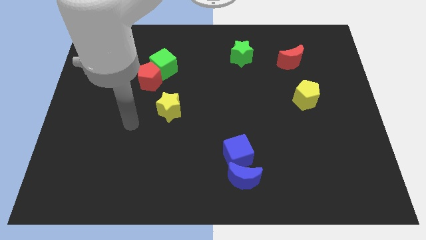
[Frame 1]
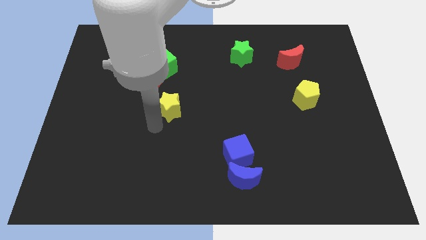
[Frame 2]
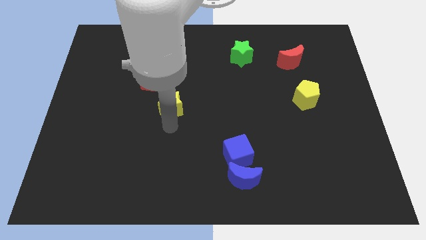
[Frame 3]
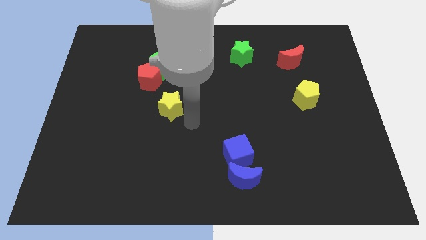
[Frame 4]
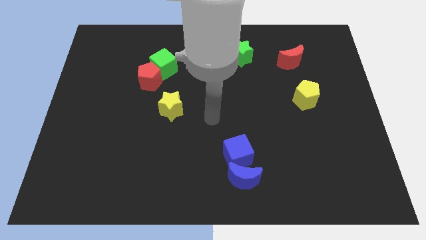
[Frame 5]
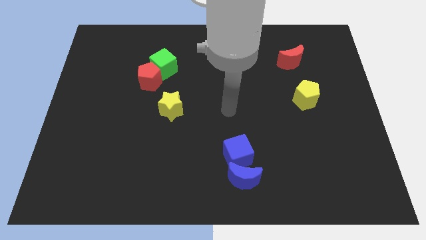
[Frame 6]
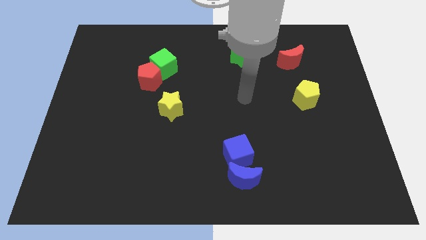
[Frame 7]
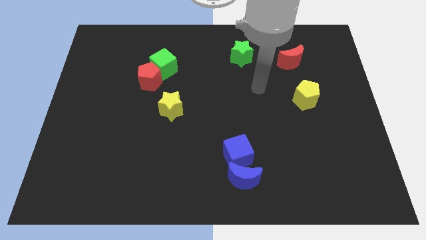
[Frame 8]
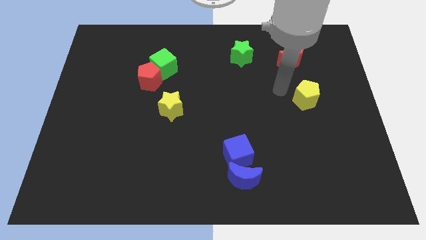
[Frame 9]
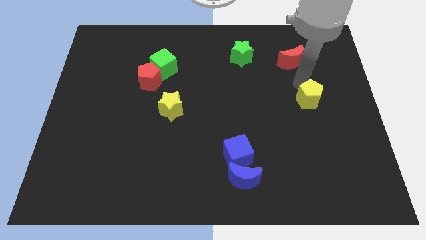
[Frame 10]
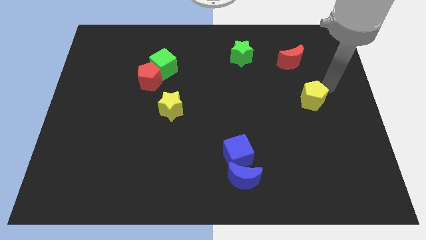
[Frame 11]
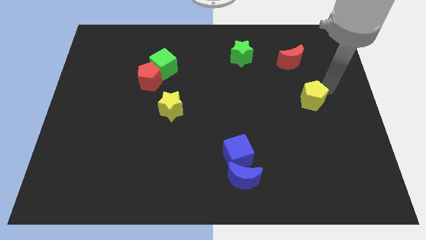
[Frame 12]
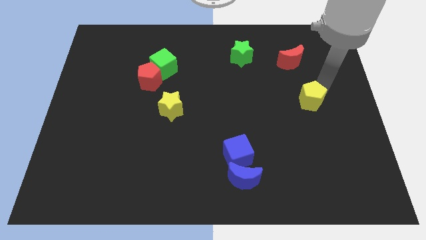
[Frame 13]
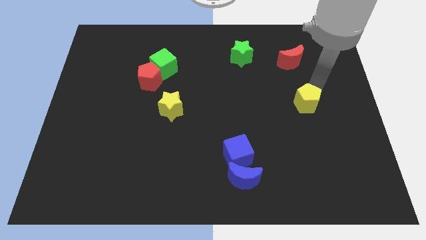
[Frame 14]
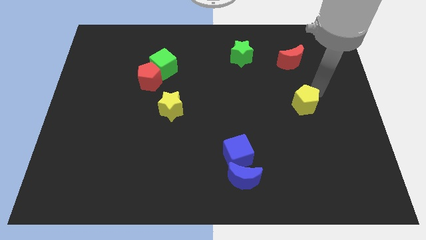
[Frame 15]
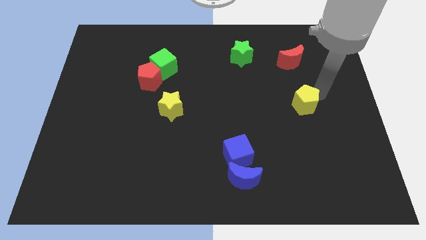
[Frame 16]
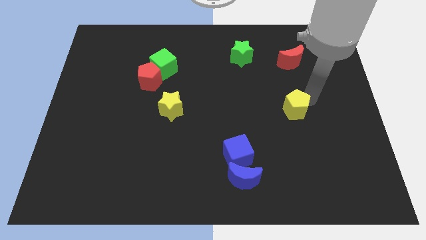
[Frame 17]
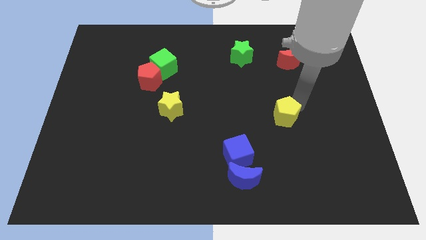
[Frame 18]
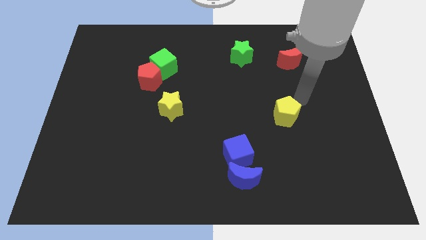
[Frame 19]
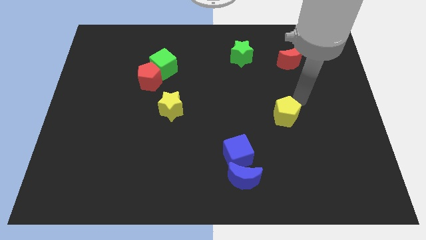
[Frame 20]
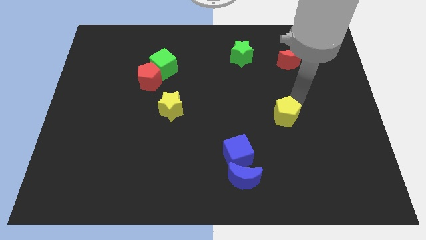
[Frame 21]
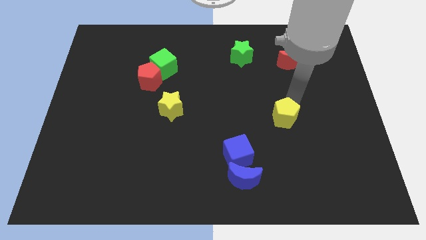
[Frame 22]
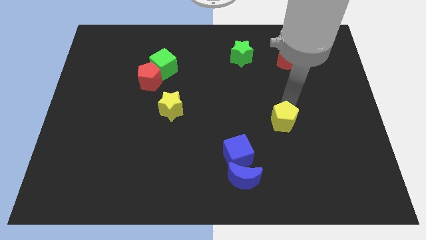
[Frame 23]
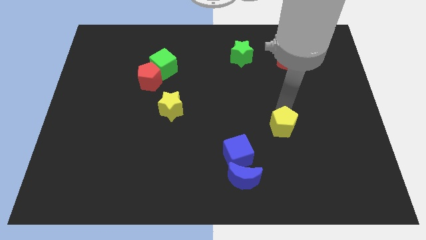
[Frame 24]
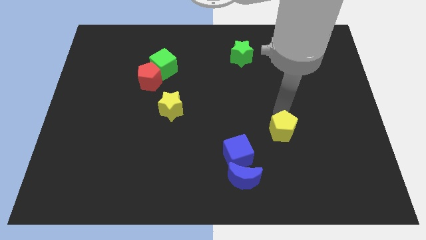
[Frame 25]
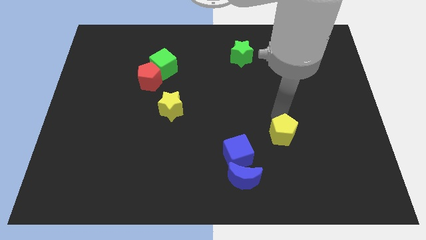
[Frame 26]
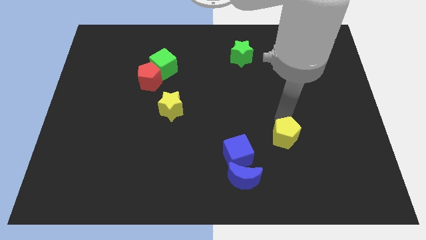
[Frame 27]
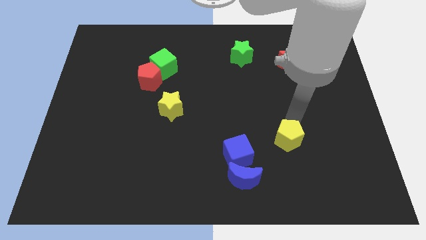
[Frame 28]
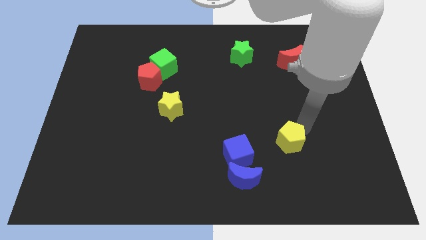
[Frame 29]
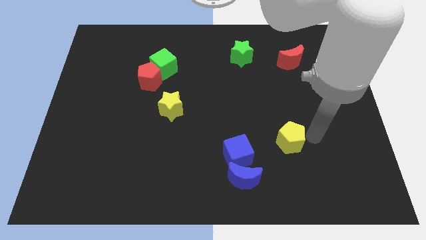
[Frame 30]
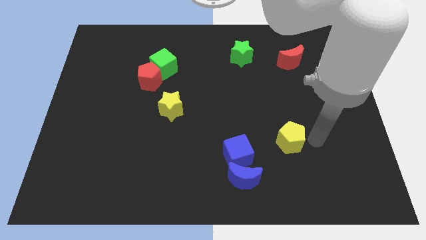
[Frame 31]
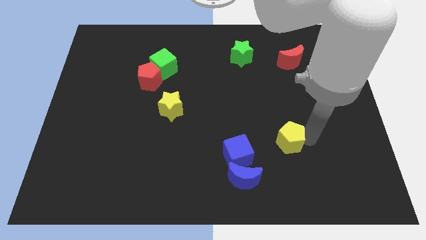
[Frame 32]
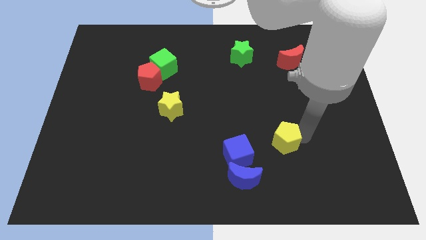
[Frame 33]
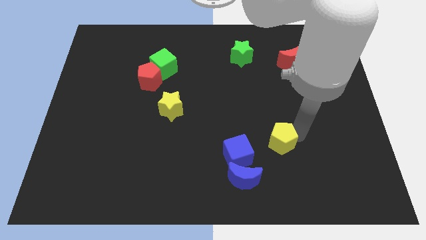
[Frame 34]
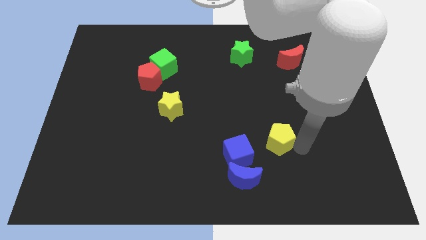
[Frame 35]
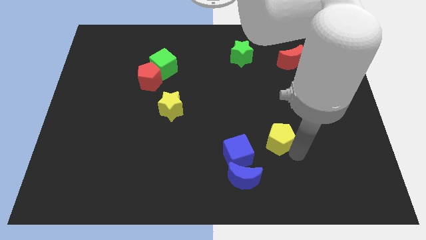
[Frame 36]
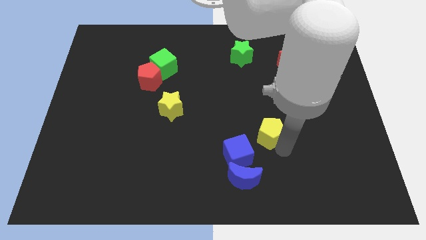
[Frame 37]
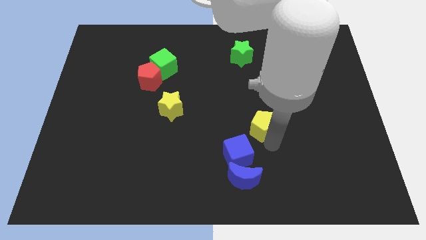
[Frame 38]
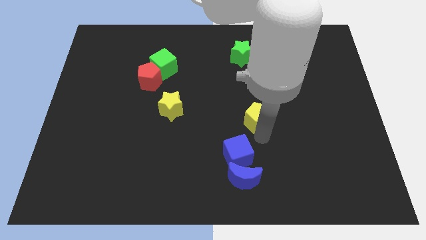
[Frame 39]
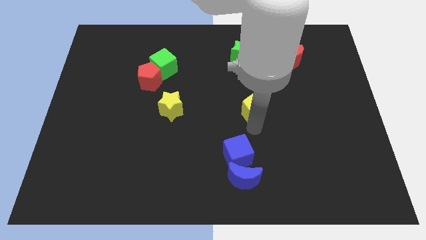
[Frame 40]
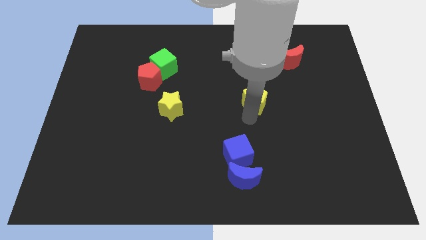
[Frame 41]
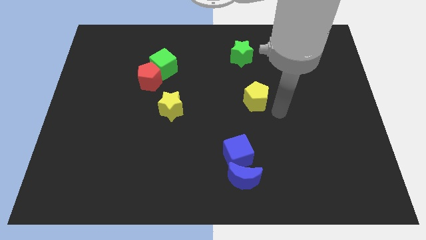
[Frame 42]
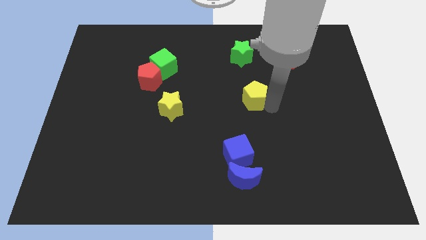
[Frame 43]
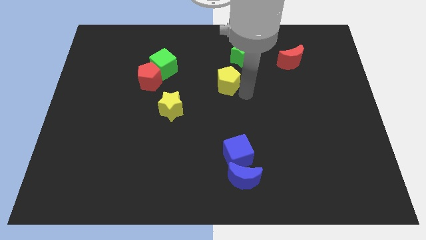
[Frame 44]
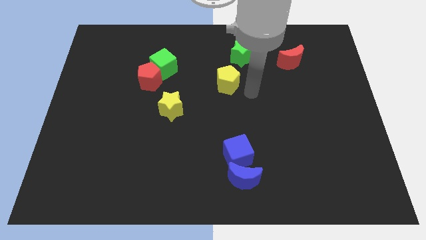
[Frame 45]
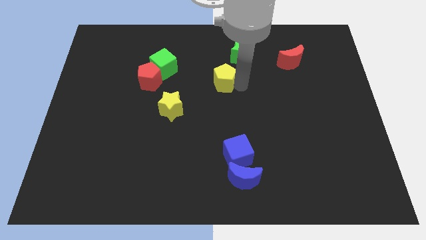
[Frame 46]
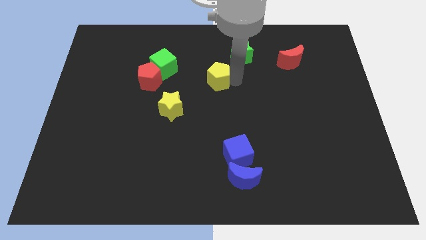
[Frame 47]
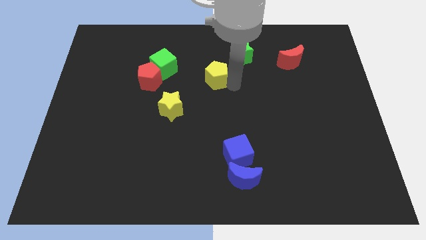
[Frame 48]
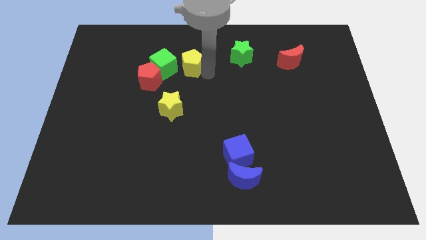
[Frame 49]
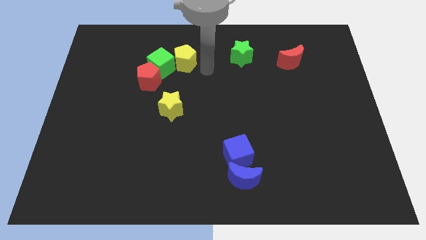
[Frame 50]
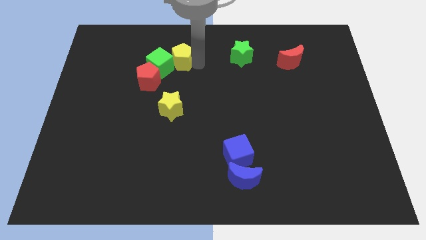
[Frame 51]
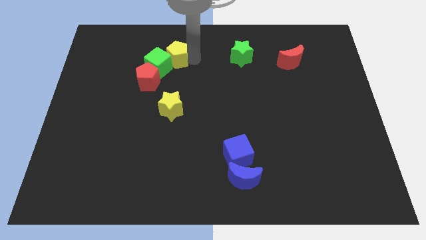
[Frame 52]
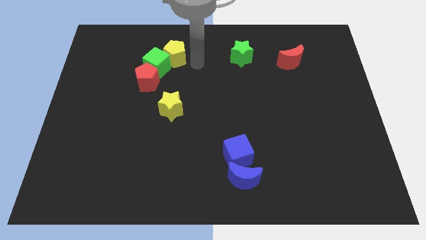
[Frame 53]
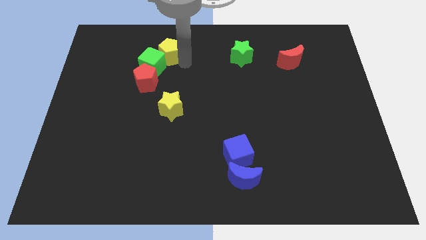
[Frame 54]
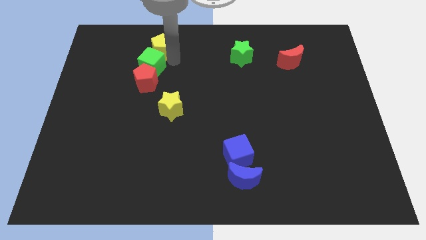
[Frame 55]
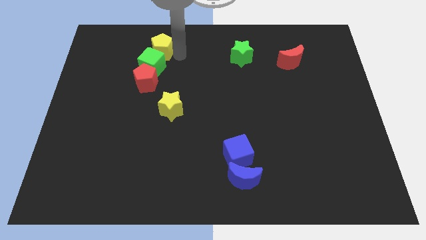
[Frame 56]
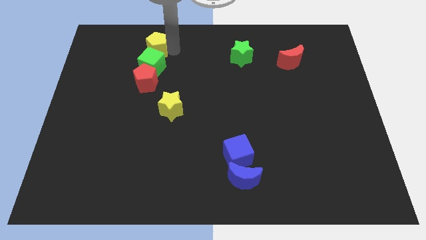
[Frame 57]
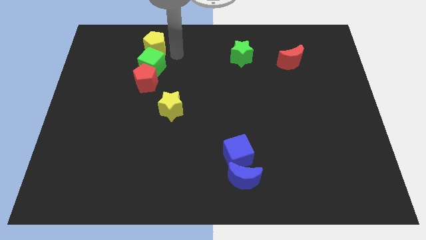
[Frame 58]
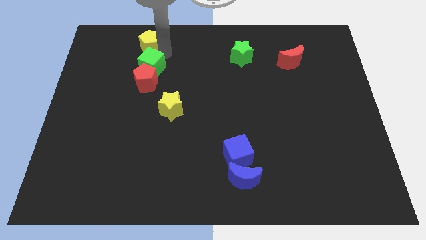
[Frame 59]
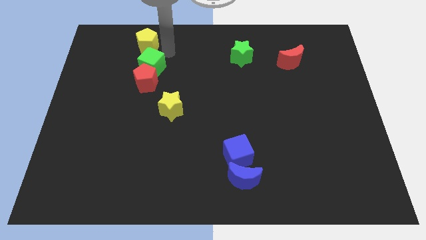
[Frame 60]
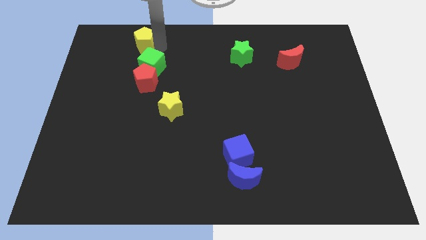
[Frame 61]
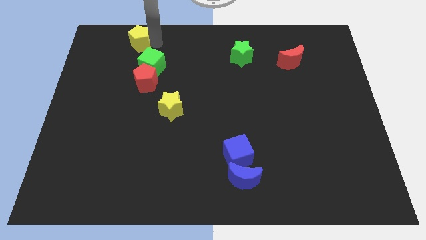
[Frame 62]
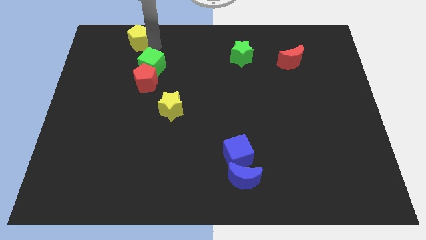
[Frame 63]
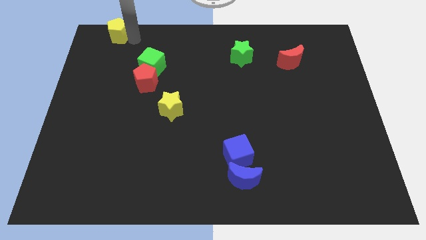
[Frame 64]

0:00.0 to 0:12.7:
slide the yellow pentagon to the top left corner
